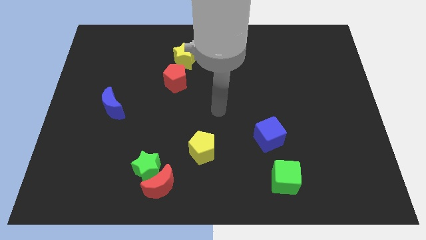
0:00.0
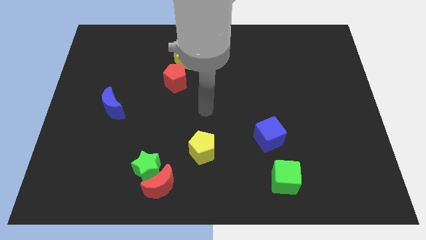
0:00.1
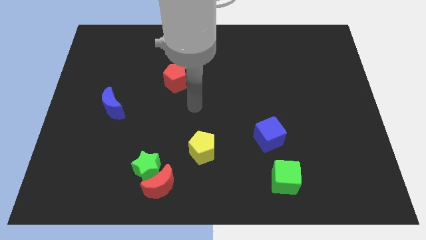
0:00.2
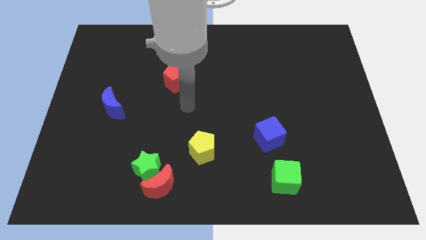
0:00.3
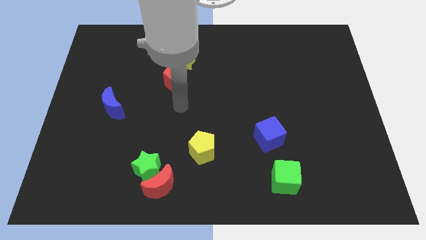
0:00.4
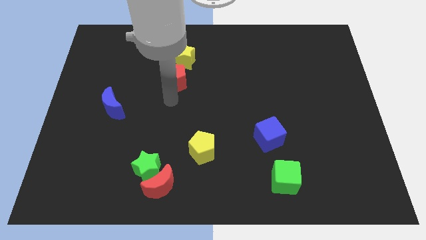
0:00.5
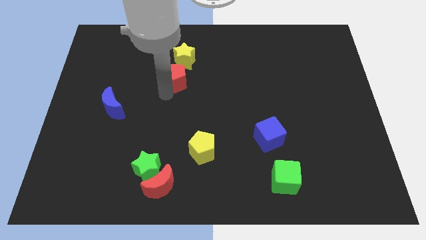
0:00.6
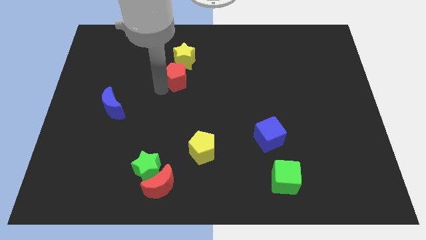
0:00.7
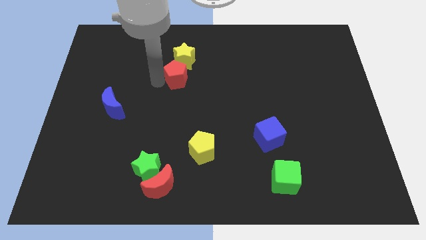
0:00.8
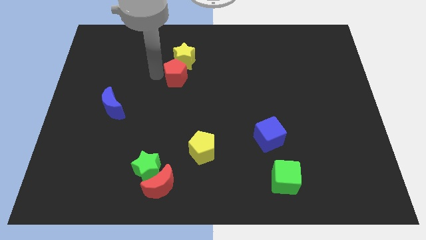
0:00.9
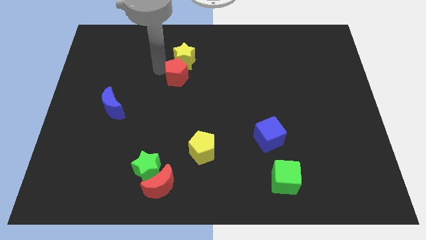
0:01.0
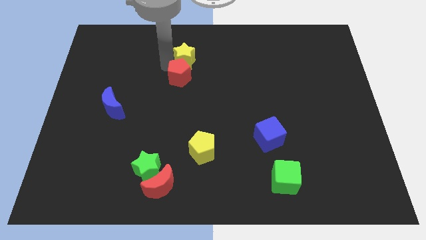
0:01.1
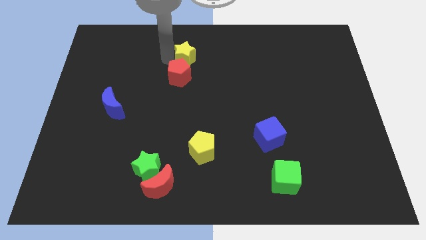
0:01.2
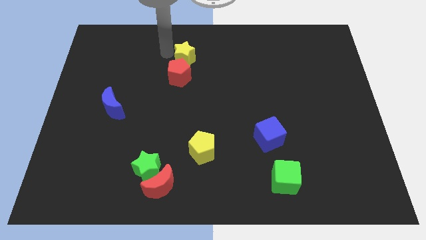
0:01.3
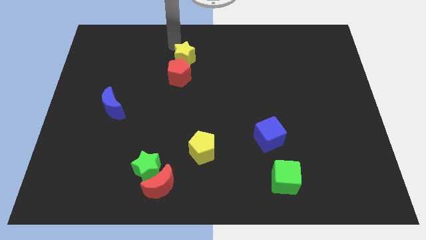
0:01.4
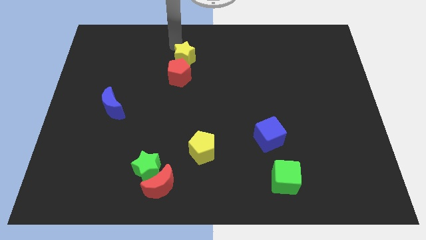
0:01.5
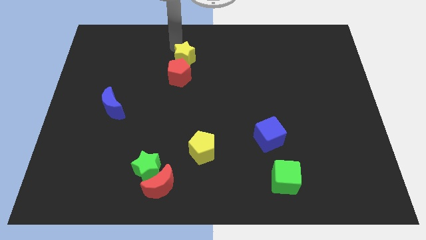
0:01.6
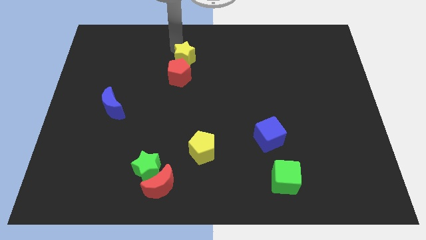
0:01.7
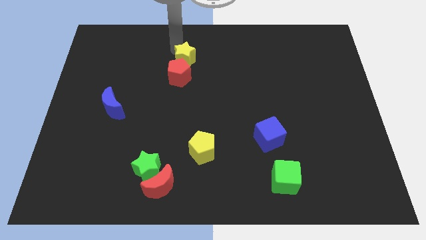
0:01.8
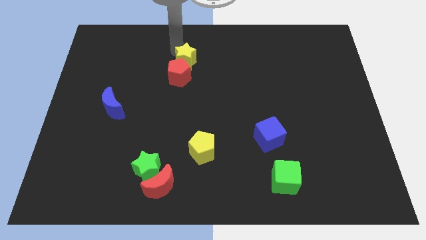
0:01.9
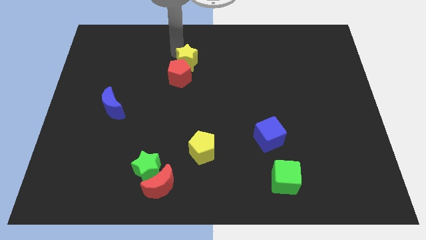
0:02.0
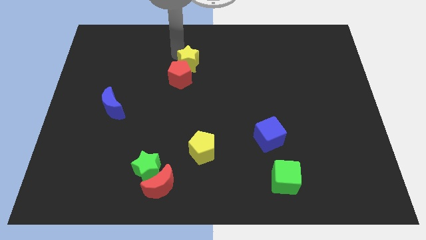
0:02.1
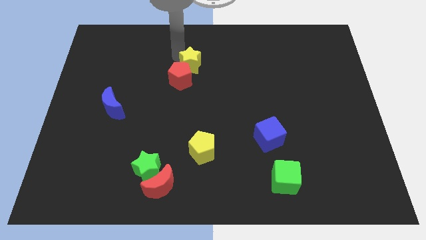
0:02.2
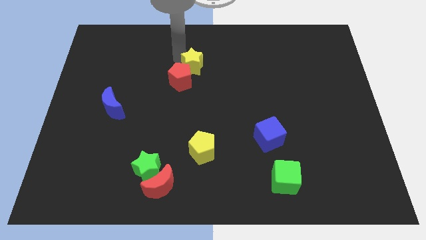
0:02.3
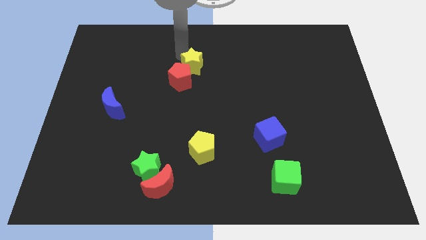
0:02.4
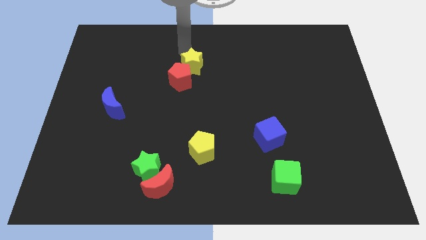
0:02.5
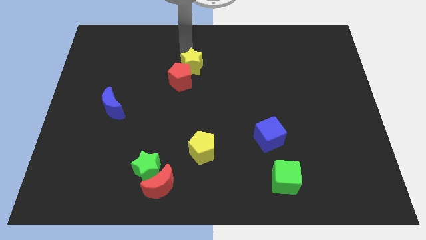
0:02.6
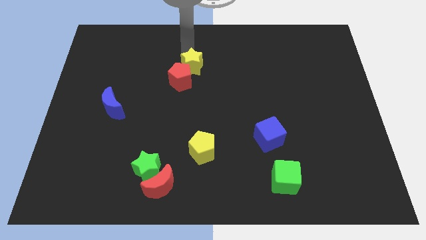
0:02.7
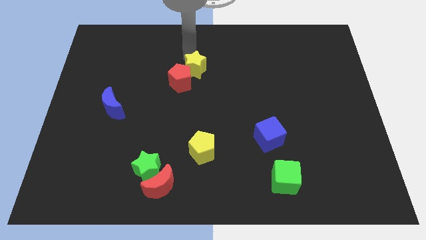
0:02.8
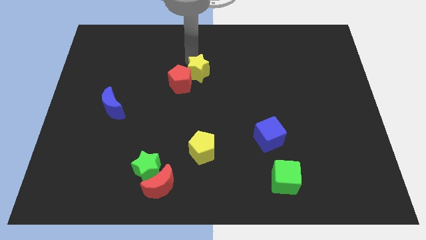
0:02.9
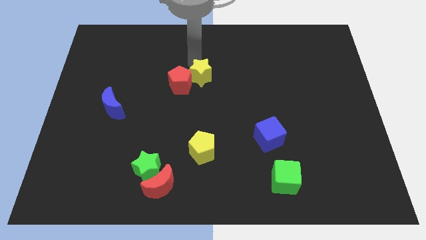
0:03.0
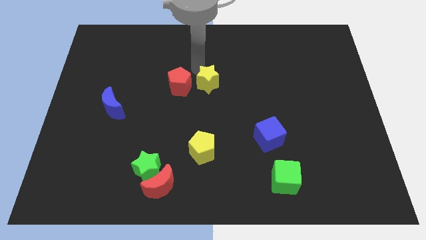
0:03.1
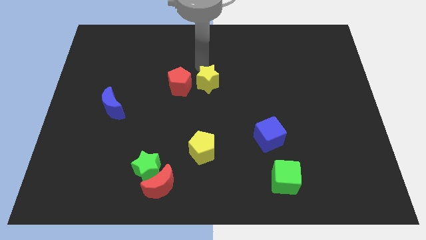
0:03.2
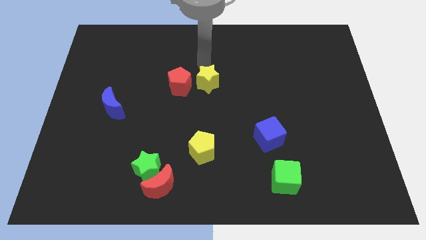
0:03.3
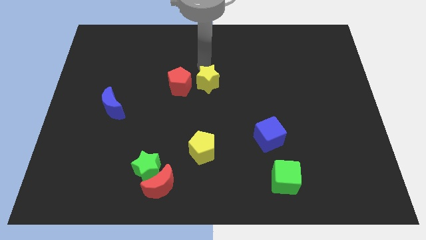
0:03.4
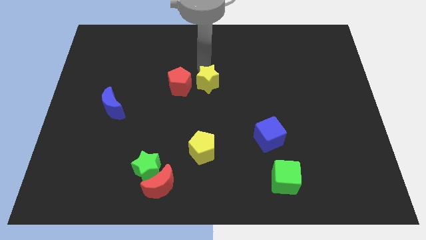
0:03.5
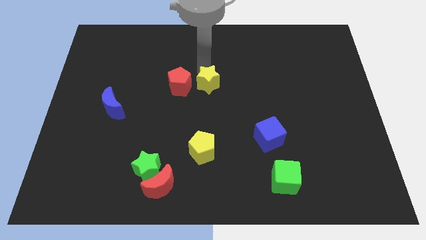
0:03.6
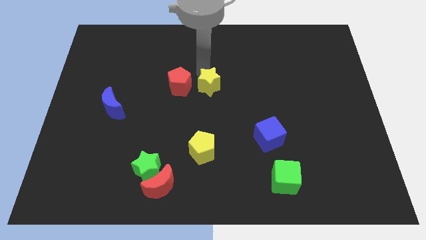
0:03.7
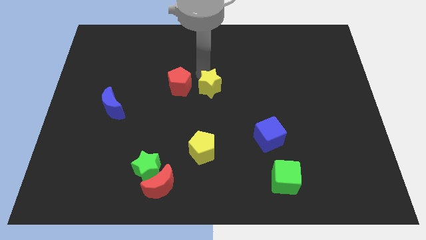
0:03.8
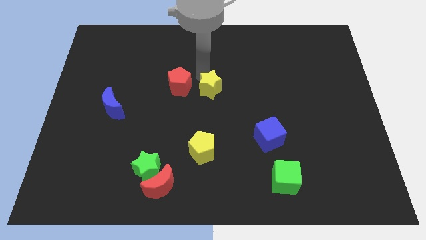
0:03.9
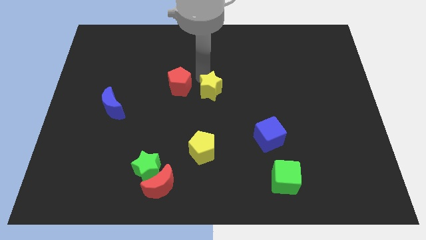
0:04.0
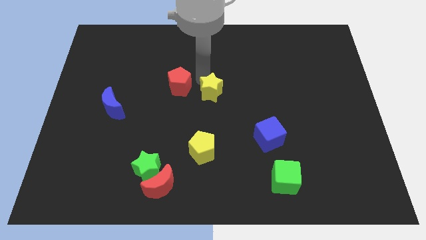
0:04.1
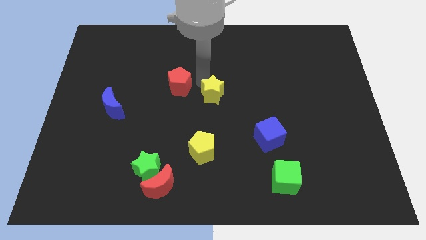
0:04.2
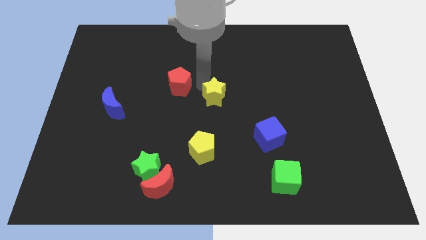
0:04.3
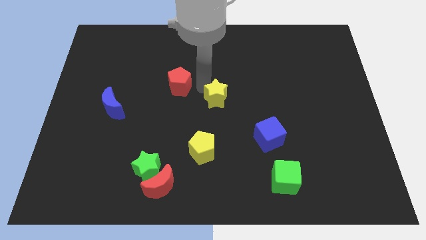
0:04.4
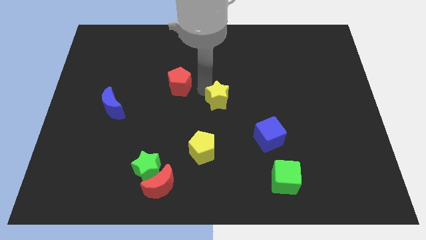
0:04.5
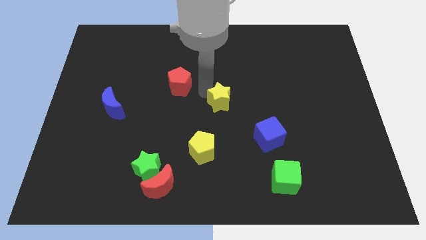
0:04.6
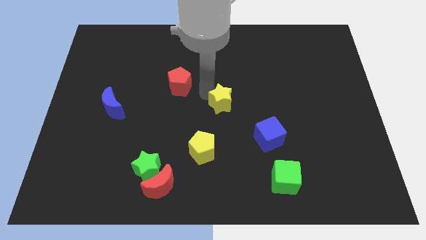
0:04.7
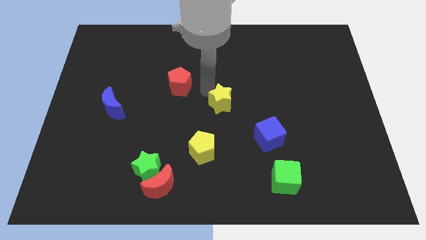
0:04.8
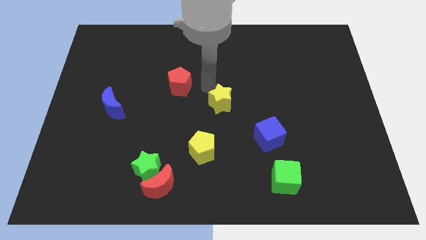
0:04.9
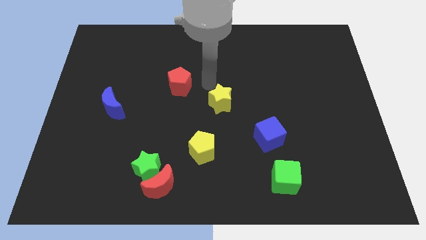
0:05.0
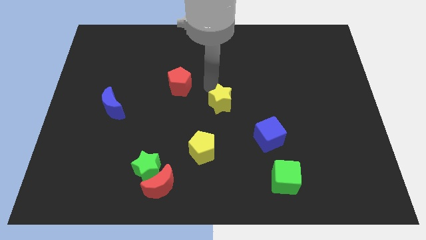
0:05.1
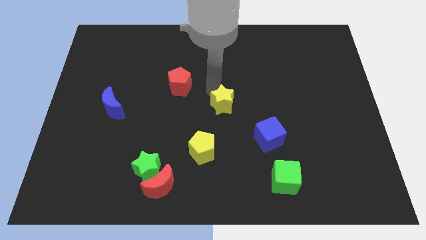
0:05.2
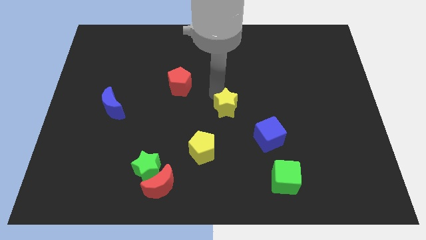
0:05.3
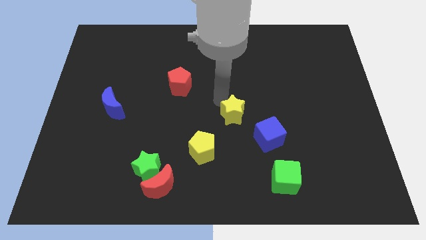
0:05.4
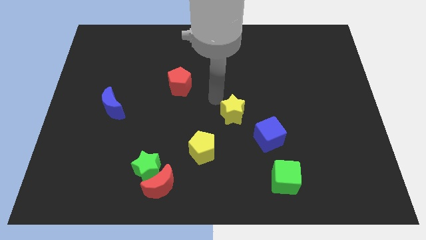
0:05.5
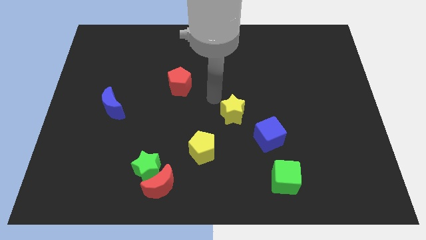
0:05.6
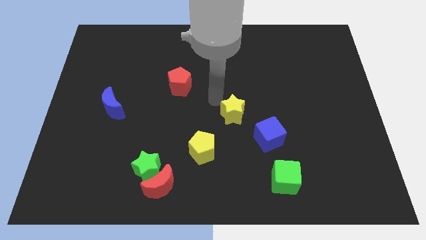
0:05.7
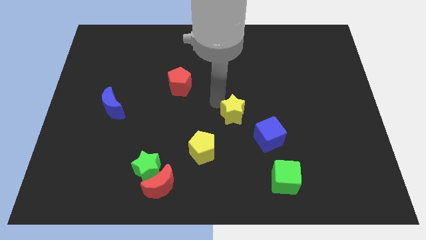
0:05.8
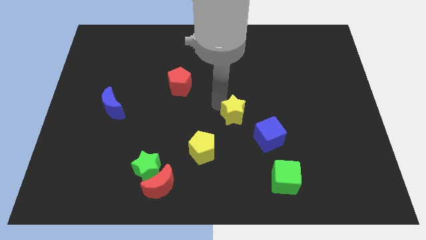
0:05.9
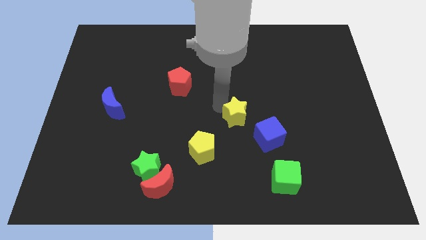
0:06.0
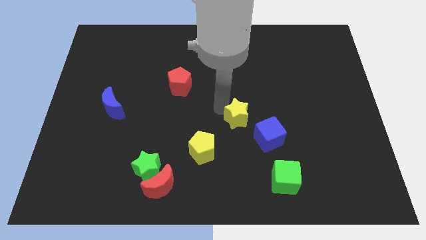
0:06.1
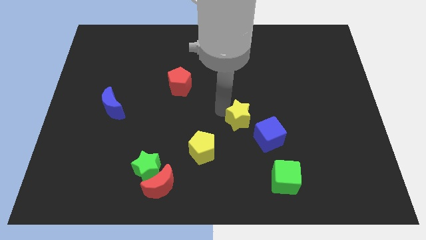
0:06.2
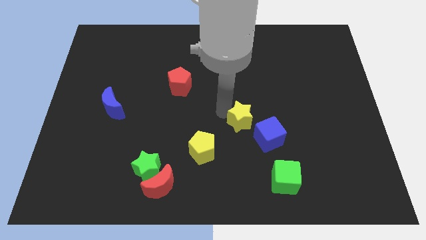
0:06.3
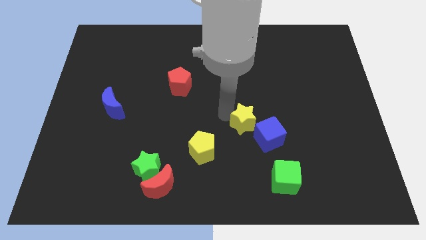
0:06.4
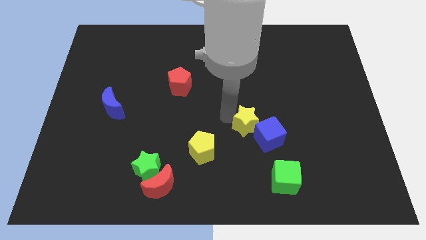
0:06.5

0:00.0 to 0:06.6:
slide the yellow star to the blue cube
